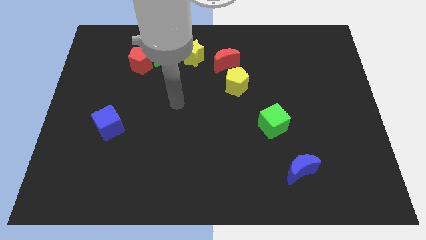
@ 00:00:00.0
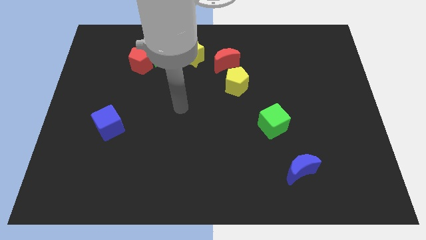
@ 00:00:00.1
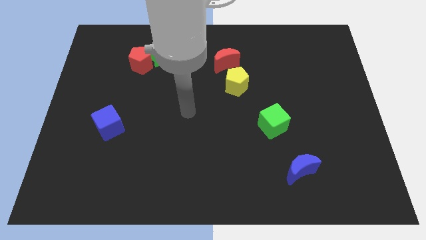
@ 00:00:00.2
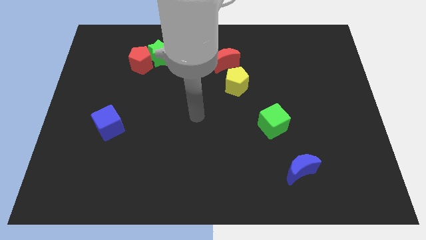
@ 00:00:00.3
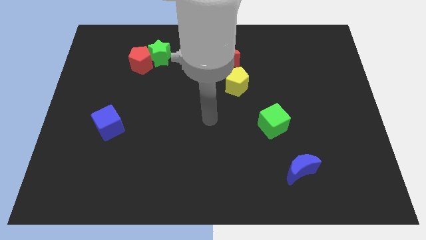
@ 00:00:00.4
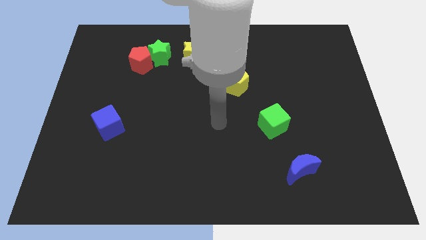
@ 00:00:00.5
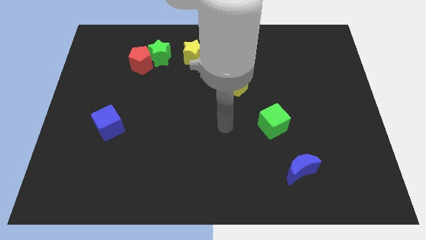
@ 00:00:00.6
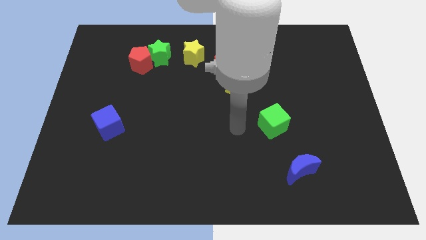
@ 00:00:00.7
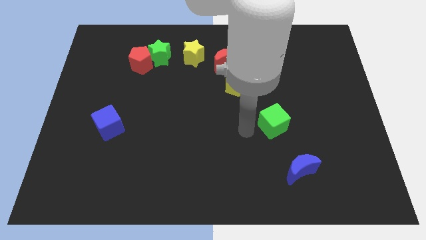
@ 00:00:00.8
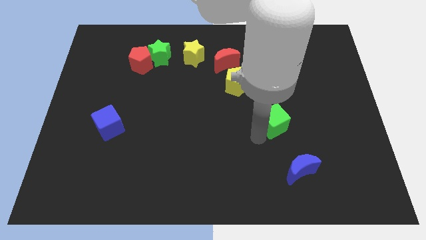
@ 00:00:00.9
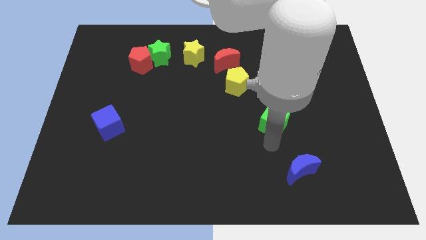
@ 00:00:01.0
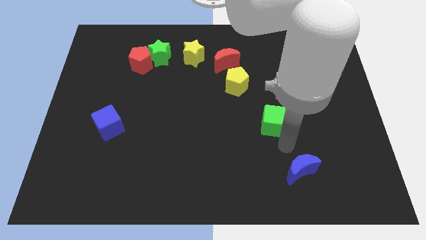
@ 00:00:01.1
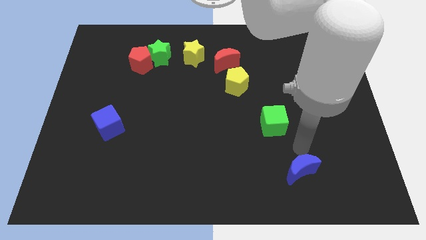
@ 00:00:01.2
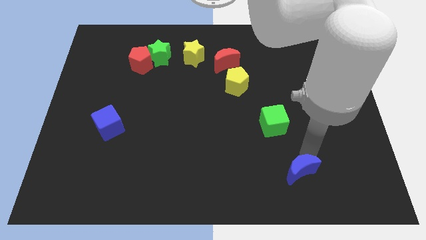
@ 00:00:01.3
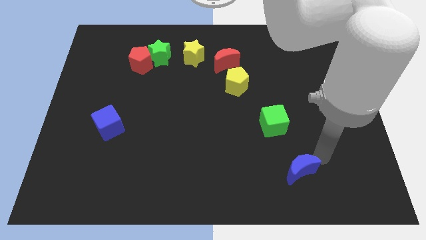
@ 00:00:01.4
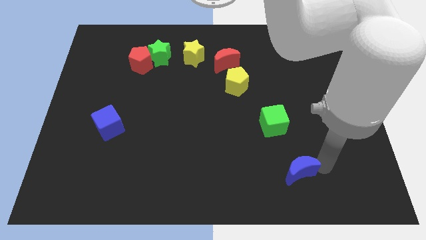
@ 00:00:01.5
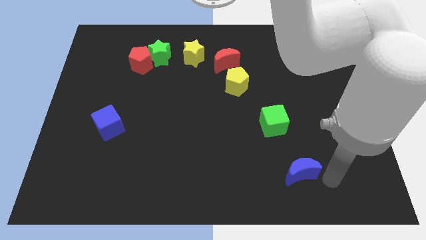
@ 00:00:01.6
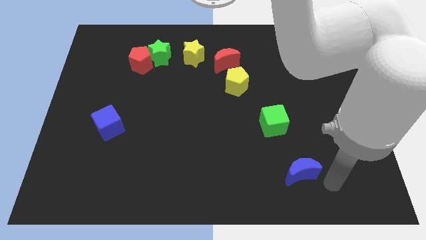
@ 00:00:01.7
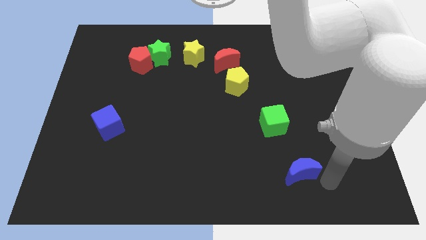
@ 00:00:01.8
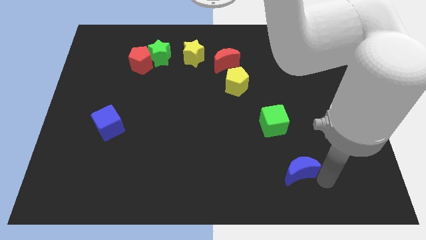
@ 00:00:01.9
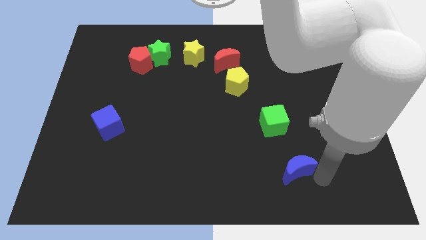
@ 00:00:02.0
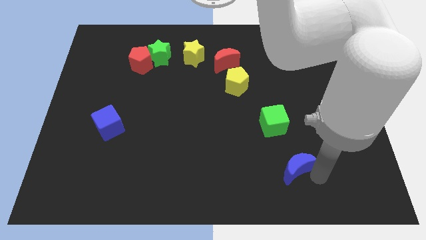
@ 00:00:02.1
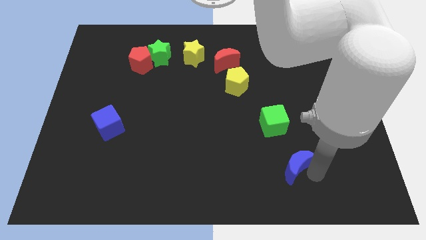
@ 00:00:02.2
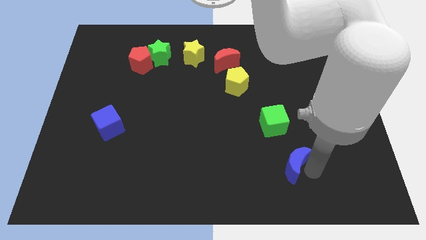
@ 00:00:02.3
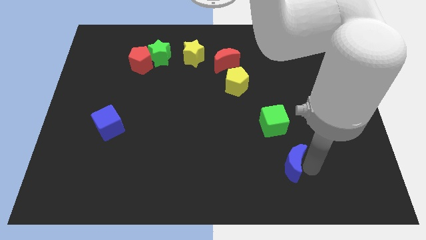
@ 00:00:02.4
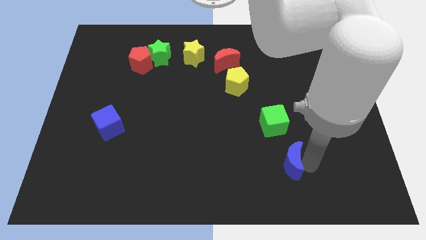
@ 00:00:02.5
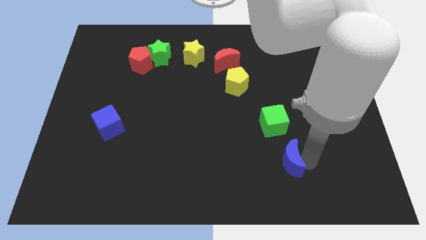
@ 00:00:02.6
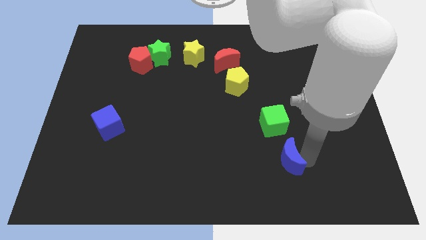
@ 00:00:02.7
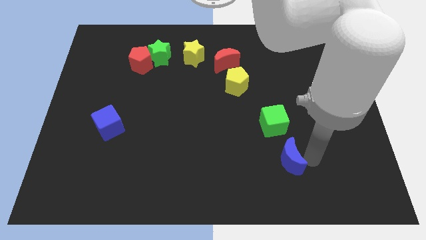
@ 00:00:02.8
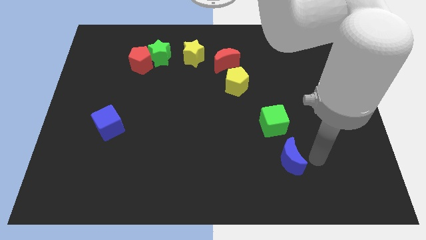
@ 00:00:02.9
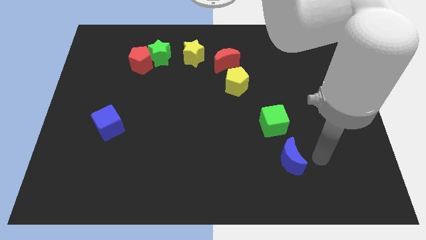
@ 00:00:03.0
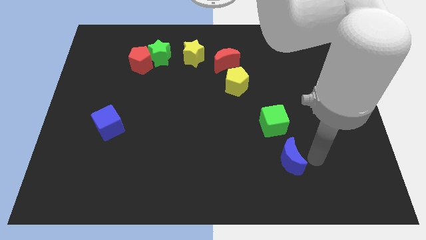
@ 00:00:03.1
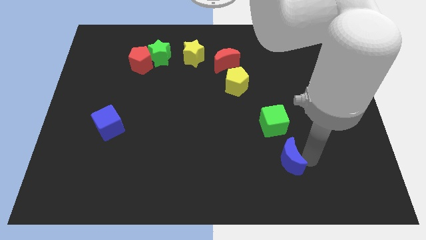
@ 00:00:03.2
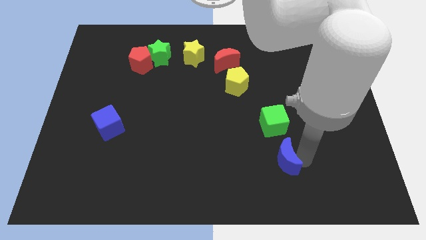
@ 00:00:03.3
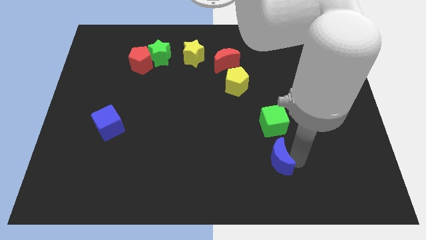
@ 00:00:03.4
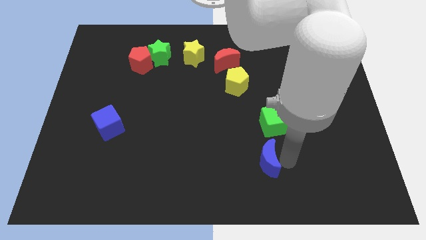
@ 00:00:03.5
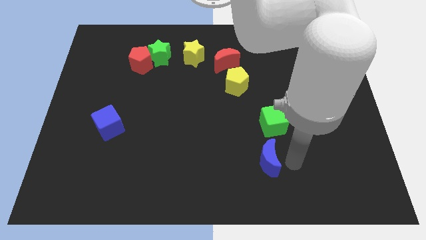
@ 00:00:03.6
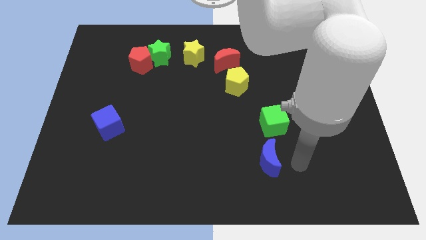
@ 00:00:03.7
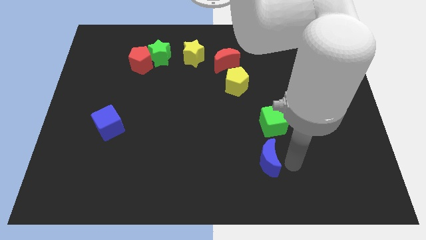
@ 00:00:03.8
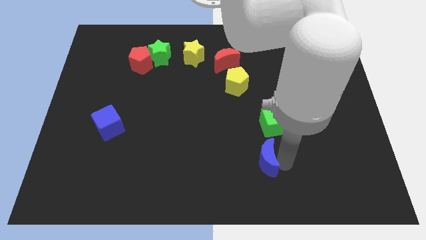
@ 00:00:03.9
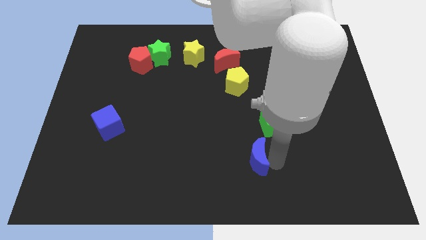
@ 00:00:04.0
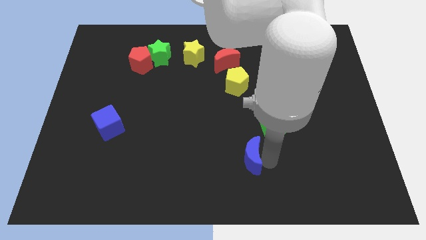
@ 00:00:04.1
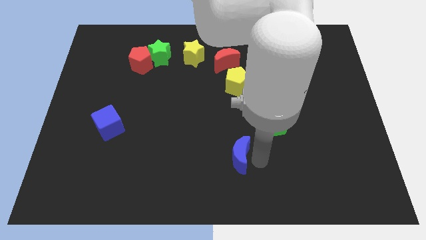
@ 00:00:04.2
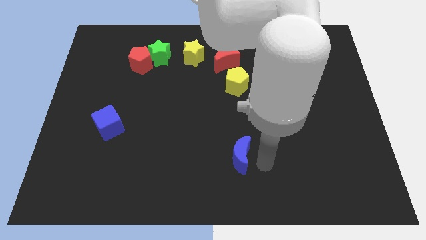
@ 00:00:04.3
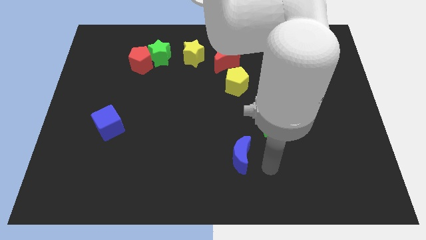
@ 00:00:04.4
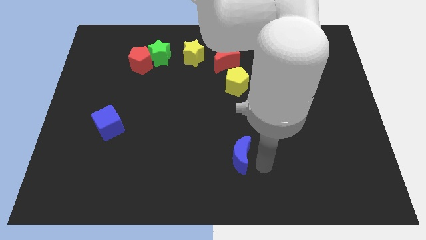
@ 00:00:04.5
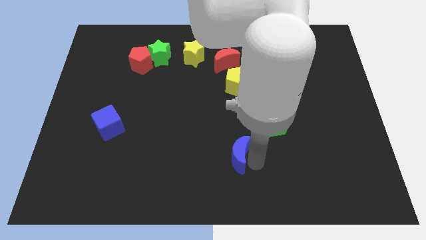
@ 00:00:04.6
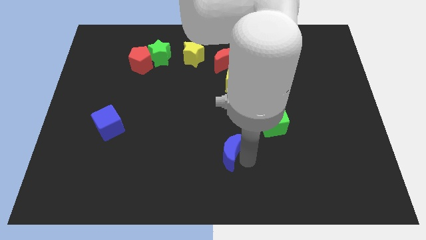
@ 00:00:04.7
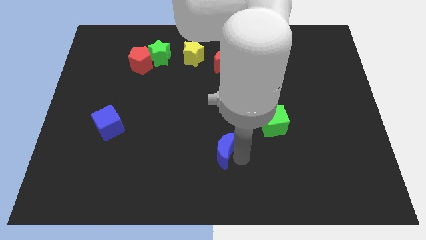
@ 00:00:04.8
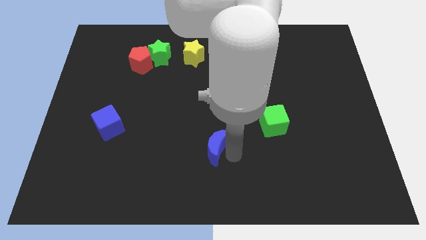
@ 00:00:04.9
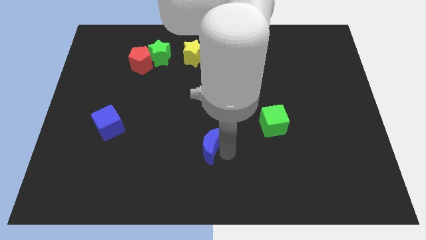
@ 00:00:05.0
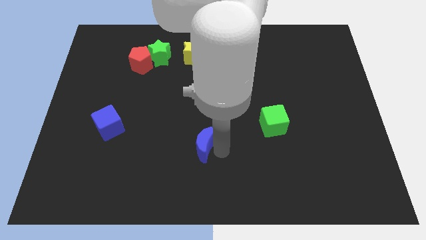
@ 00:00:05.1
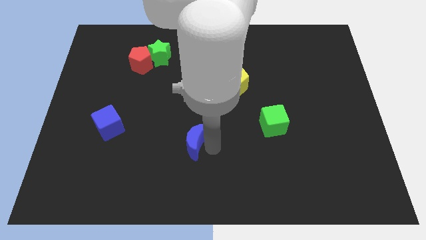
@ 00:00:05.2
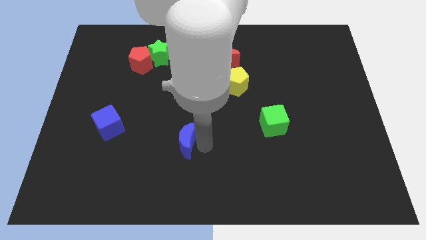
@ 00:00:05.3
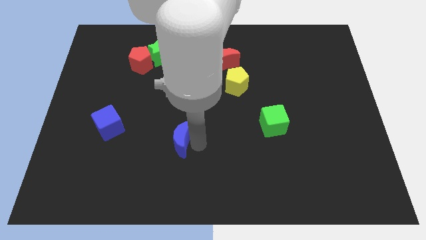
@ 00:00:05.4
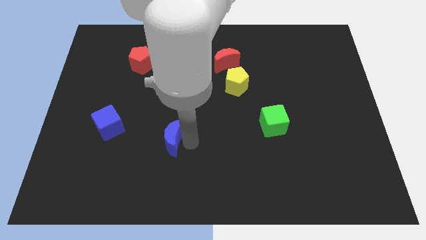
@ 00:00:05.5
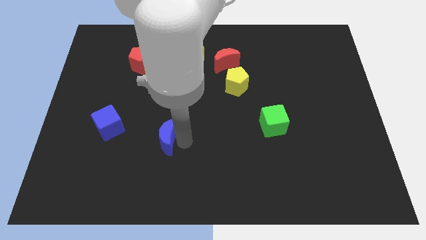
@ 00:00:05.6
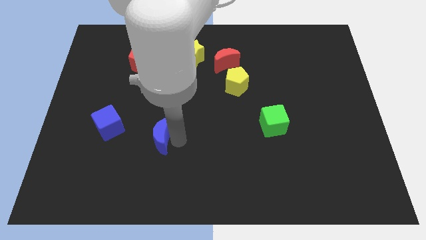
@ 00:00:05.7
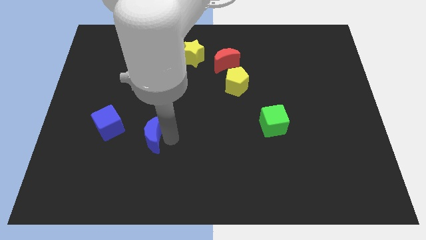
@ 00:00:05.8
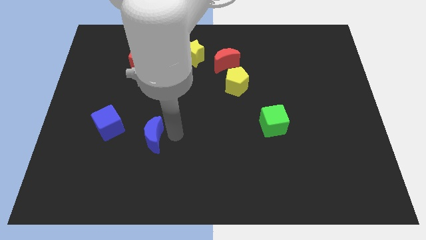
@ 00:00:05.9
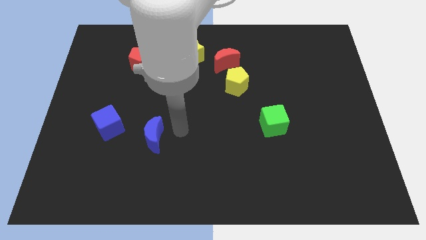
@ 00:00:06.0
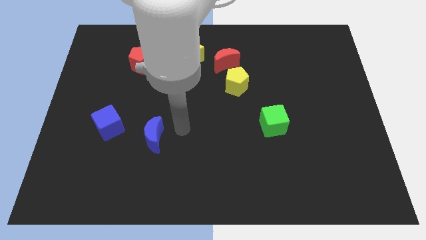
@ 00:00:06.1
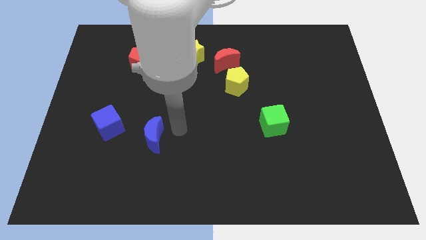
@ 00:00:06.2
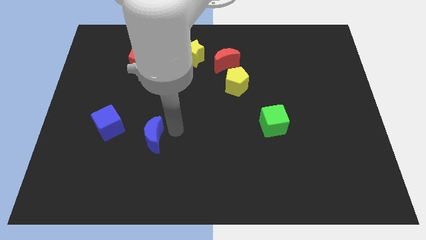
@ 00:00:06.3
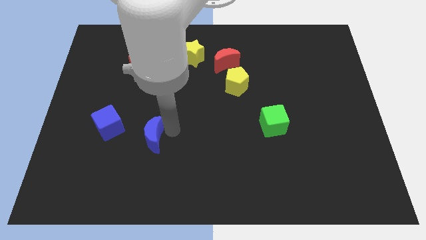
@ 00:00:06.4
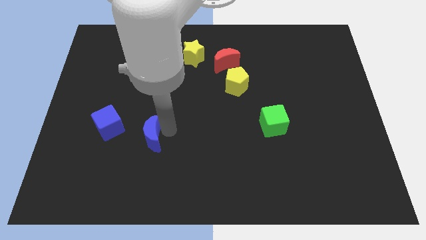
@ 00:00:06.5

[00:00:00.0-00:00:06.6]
put the blue moon to the bottom right side of the blue cube

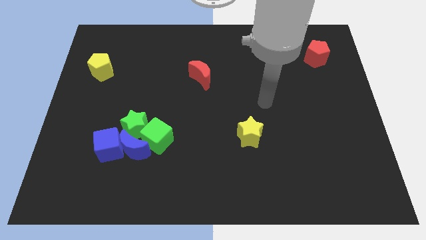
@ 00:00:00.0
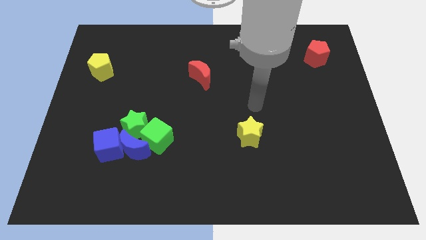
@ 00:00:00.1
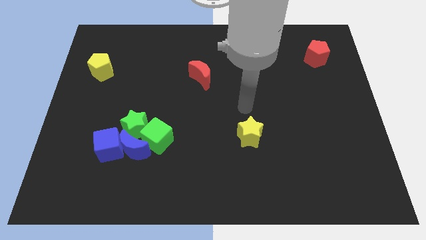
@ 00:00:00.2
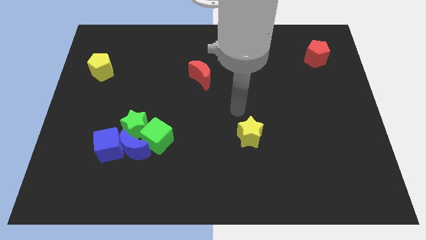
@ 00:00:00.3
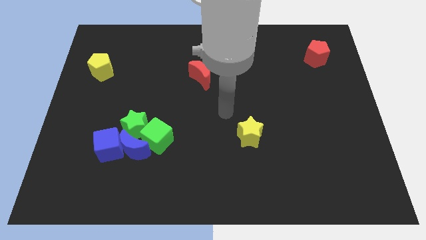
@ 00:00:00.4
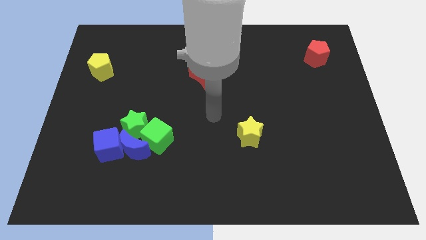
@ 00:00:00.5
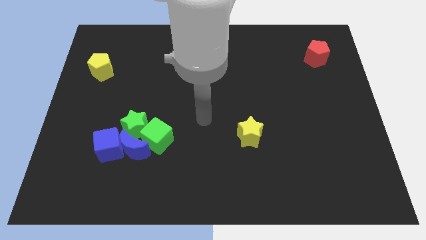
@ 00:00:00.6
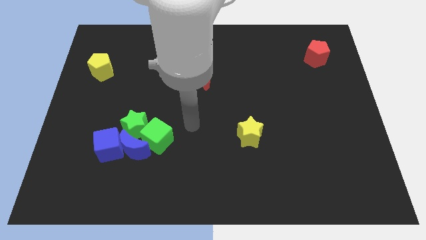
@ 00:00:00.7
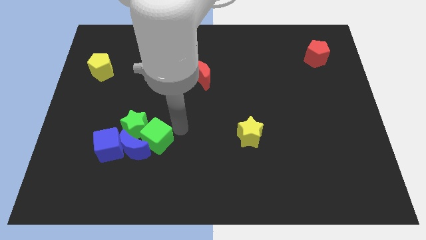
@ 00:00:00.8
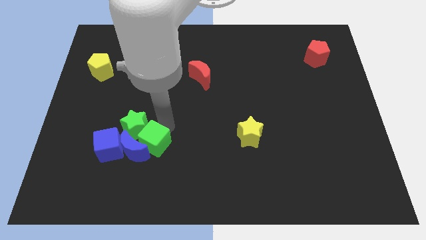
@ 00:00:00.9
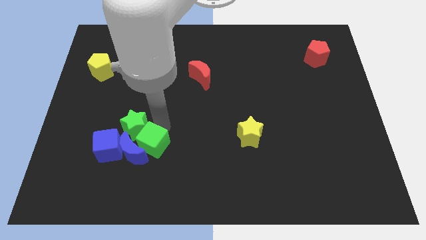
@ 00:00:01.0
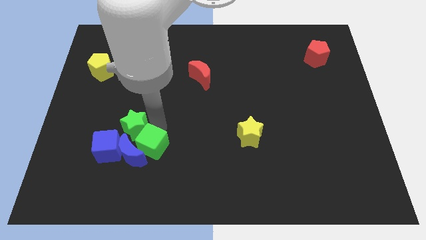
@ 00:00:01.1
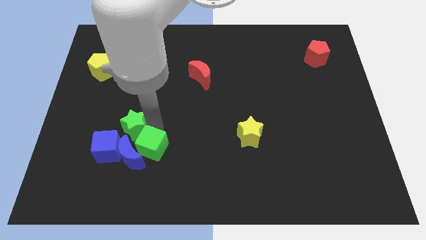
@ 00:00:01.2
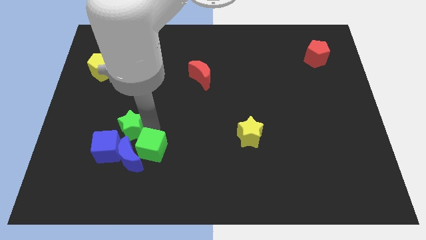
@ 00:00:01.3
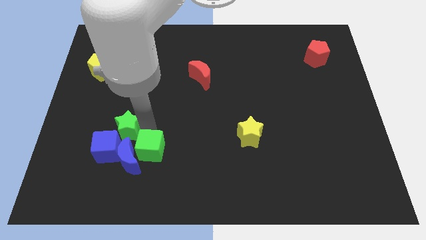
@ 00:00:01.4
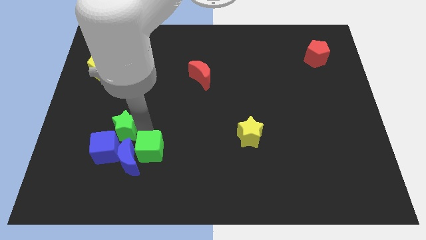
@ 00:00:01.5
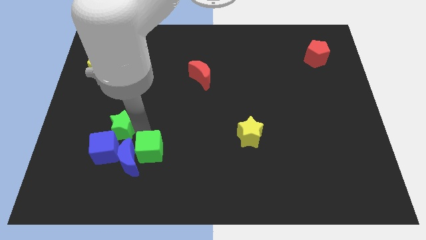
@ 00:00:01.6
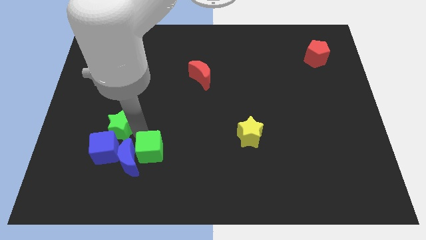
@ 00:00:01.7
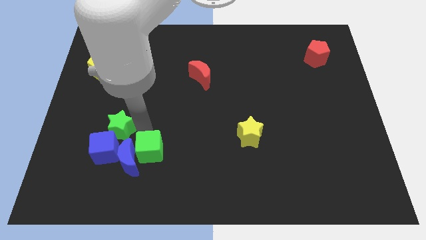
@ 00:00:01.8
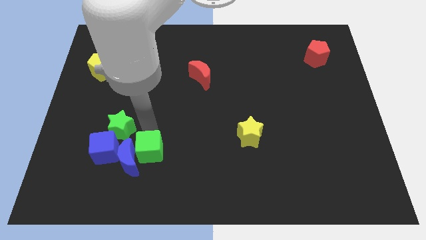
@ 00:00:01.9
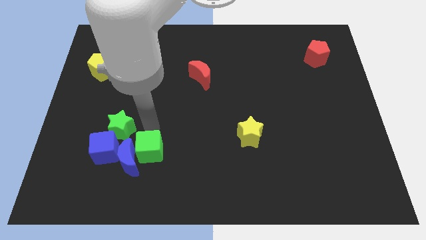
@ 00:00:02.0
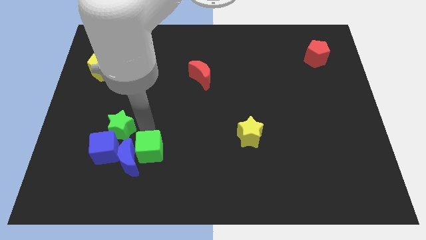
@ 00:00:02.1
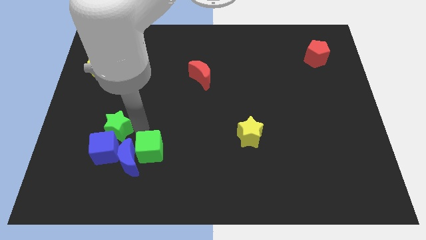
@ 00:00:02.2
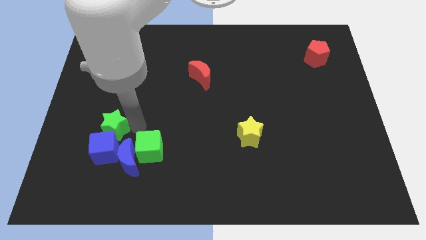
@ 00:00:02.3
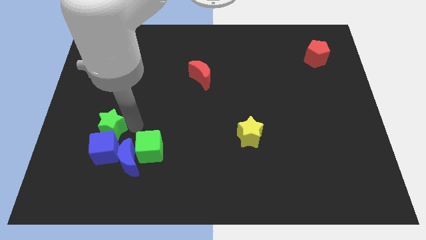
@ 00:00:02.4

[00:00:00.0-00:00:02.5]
put the green star diagonally up and to the left of the blue cube
